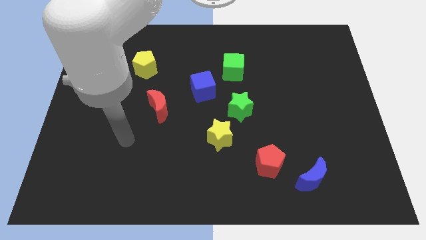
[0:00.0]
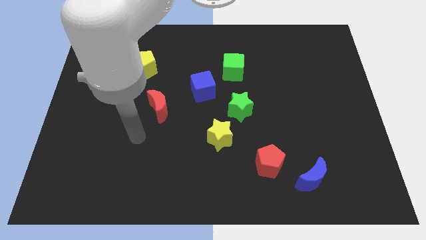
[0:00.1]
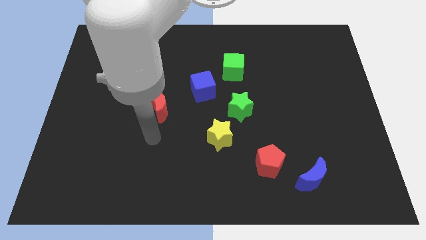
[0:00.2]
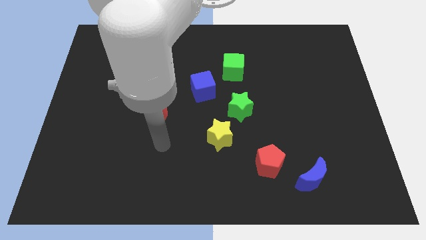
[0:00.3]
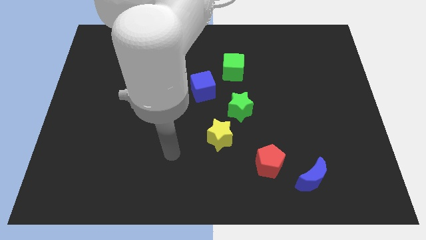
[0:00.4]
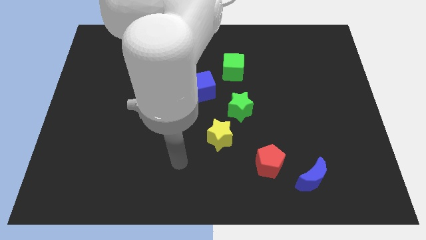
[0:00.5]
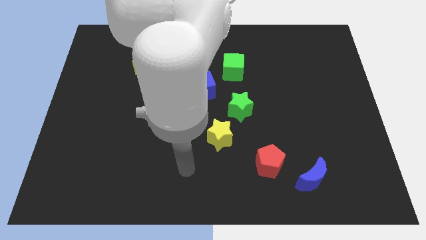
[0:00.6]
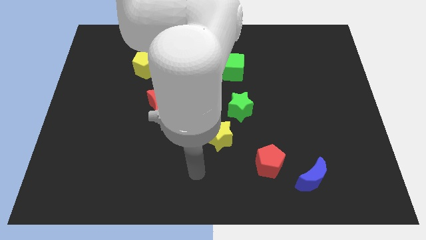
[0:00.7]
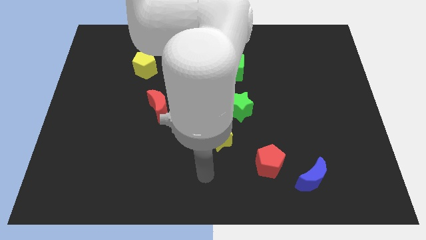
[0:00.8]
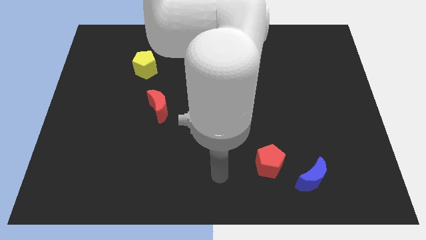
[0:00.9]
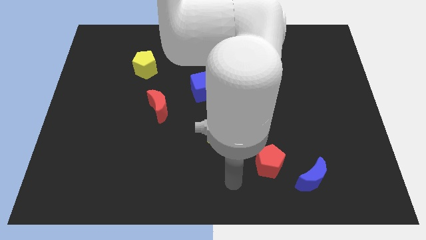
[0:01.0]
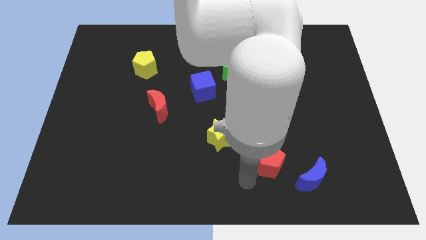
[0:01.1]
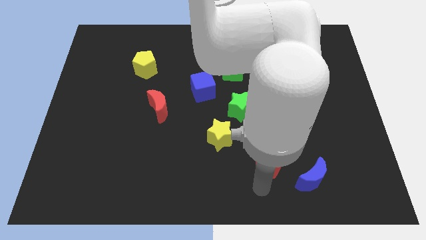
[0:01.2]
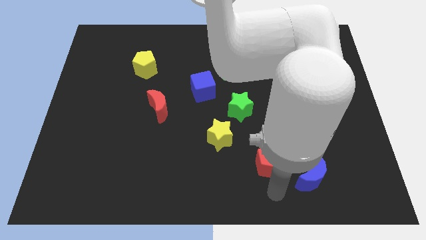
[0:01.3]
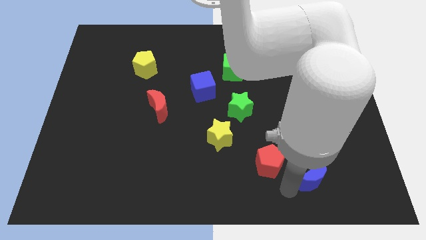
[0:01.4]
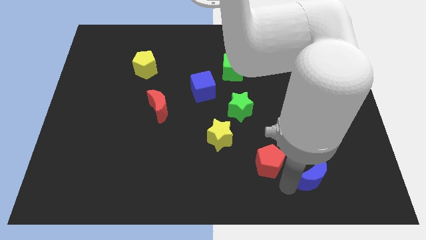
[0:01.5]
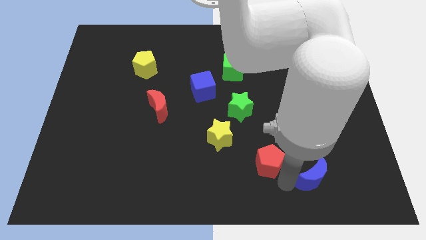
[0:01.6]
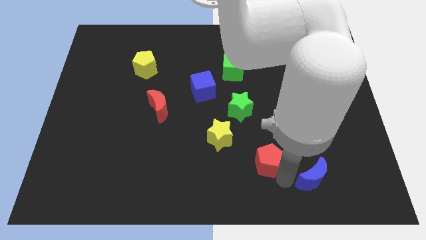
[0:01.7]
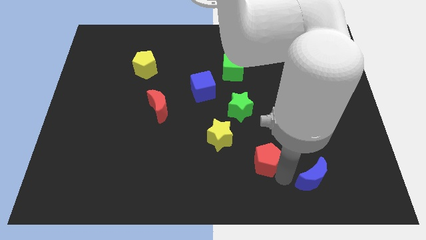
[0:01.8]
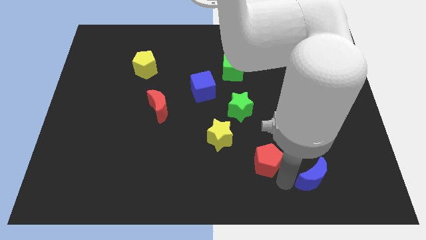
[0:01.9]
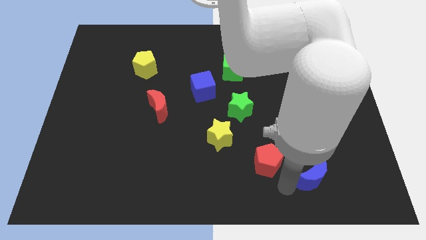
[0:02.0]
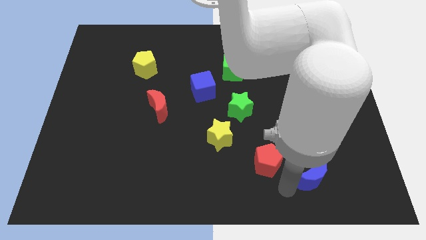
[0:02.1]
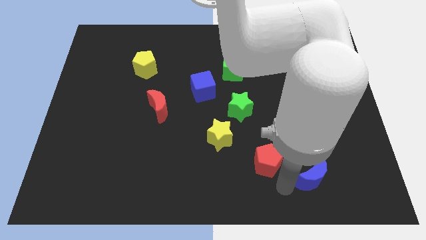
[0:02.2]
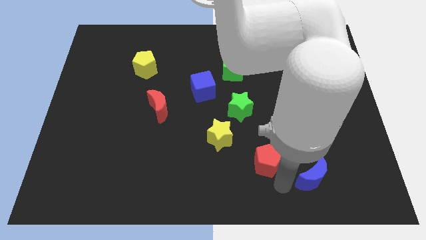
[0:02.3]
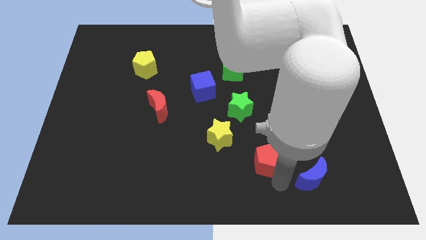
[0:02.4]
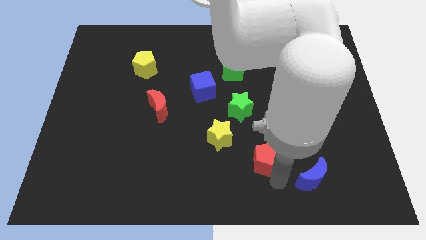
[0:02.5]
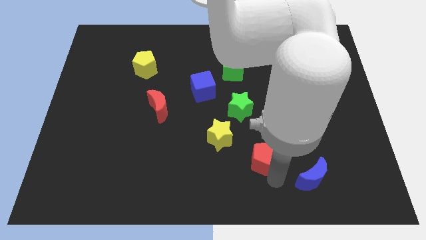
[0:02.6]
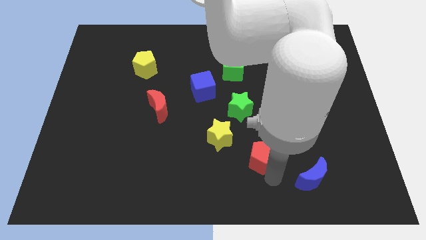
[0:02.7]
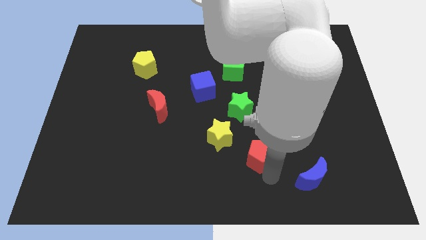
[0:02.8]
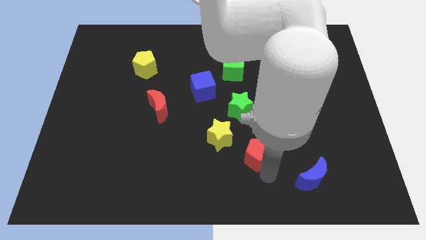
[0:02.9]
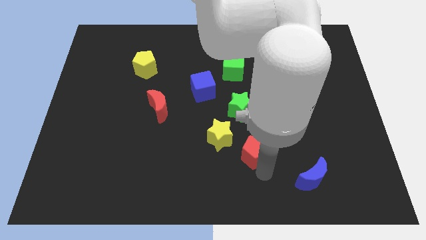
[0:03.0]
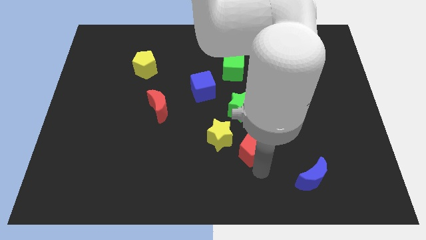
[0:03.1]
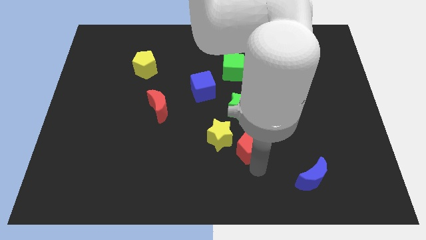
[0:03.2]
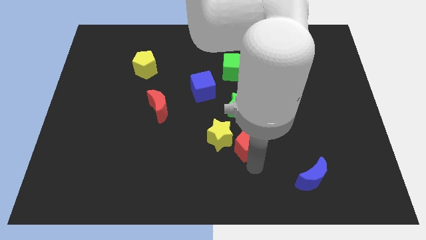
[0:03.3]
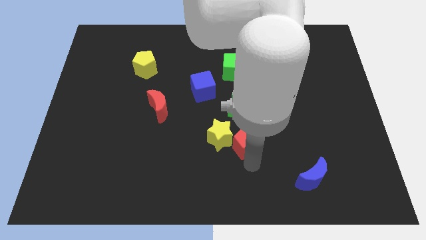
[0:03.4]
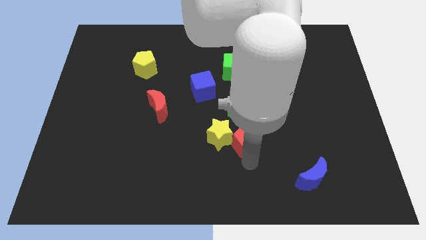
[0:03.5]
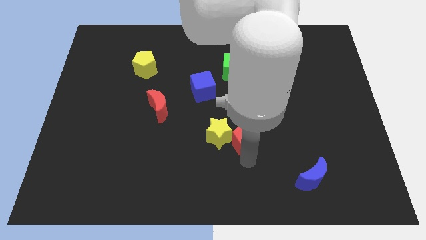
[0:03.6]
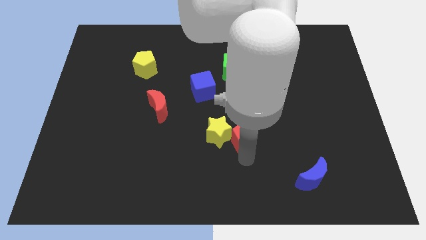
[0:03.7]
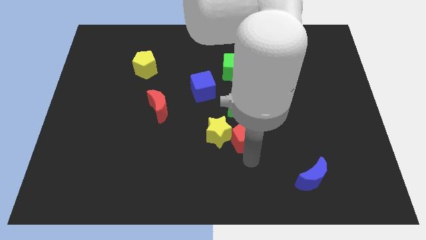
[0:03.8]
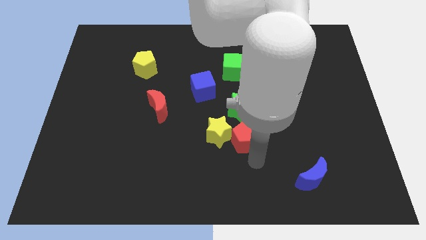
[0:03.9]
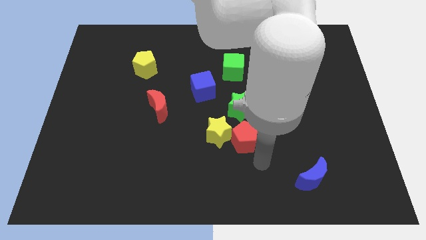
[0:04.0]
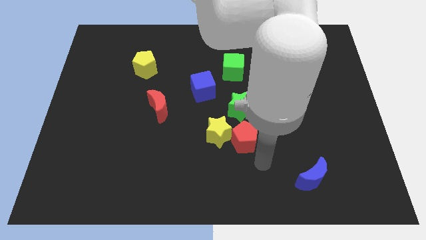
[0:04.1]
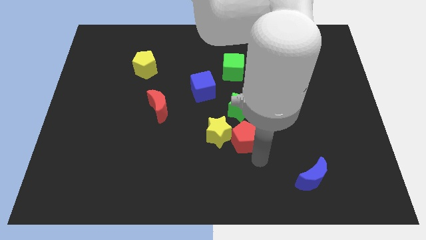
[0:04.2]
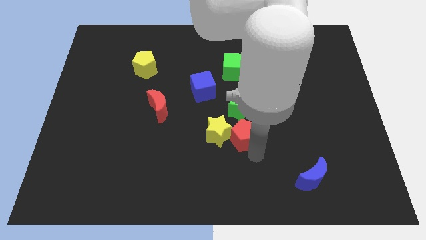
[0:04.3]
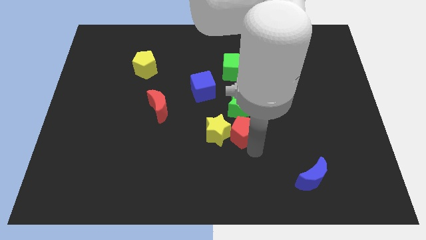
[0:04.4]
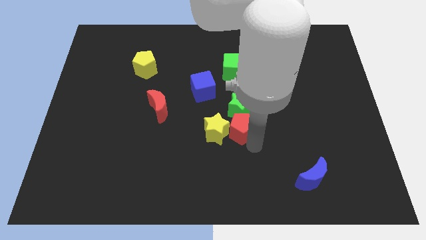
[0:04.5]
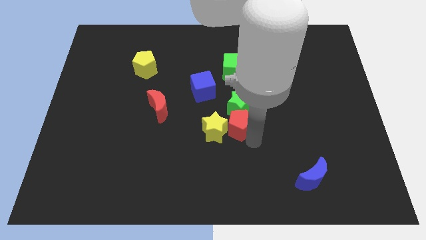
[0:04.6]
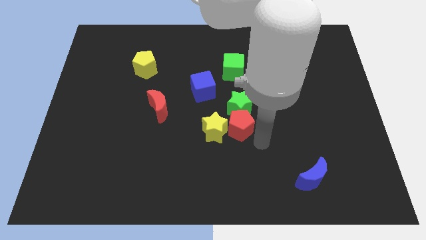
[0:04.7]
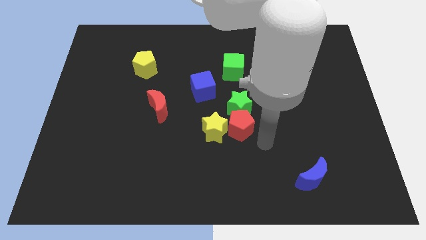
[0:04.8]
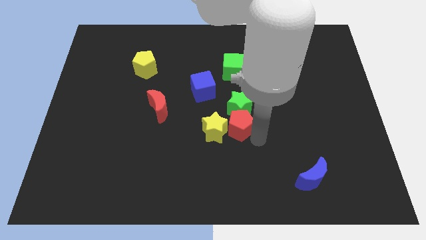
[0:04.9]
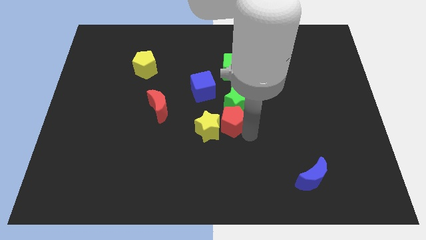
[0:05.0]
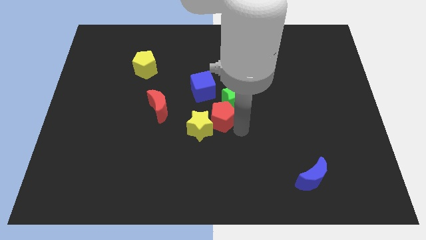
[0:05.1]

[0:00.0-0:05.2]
push the red pentagon just right of the red moon

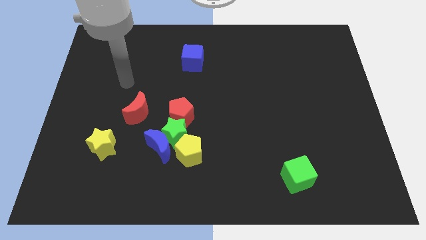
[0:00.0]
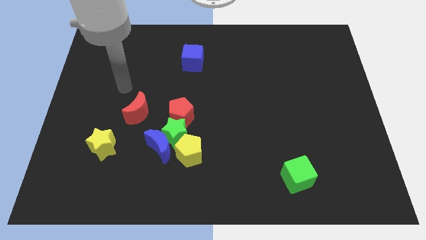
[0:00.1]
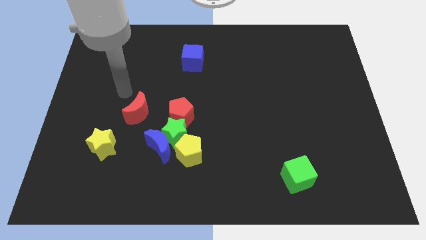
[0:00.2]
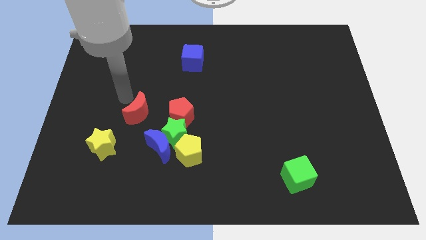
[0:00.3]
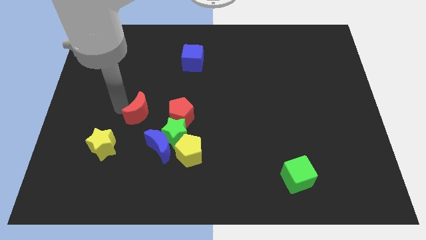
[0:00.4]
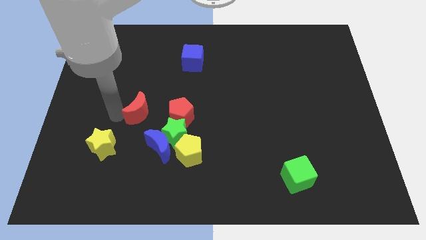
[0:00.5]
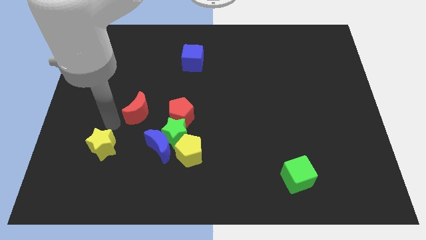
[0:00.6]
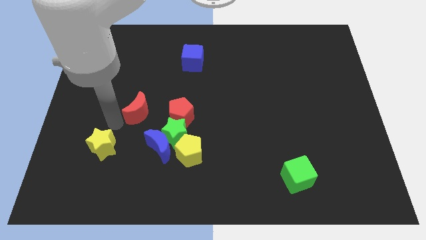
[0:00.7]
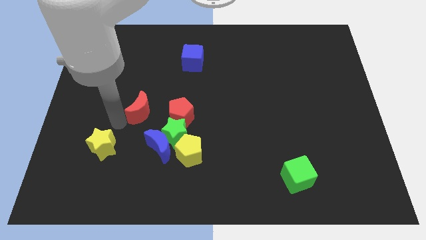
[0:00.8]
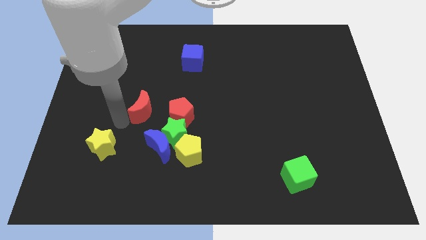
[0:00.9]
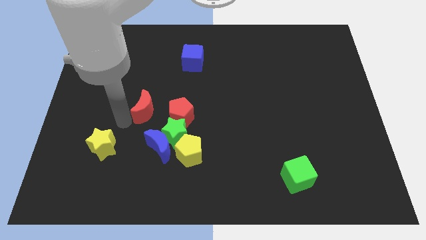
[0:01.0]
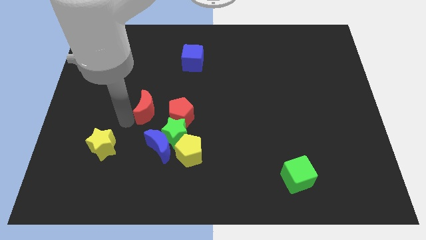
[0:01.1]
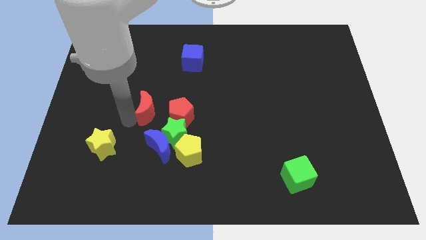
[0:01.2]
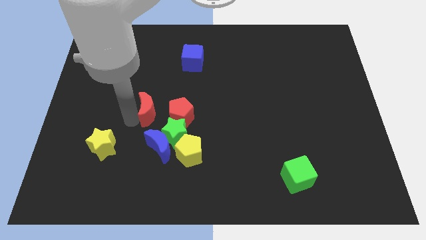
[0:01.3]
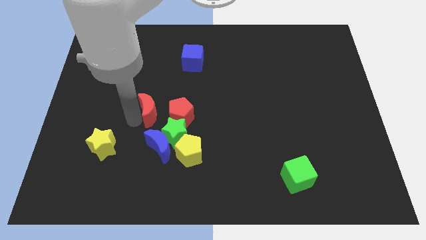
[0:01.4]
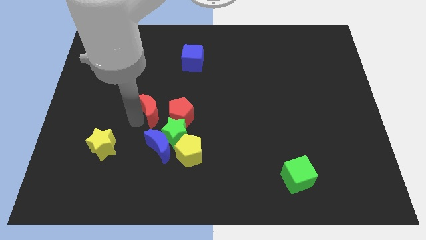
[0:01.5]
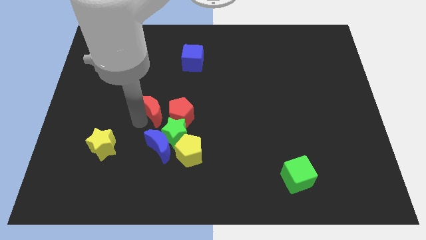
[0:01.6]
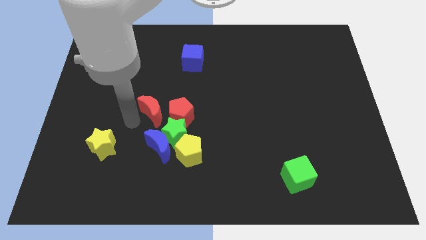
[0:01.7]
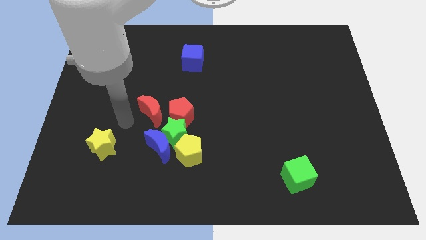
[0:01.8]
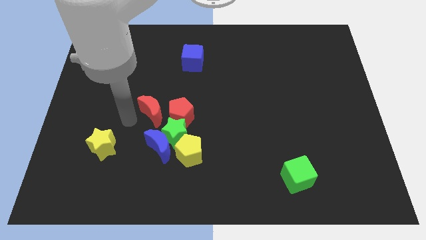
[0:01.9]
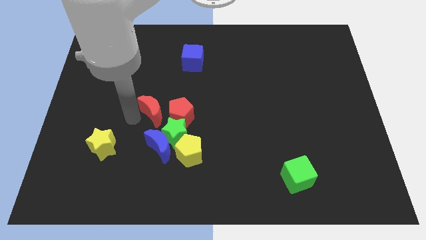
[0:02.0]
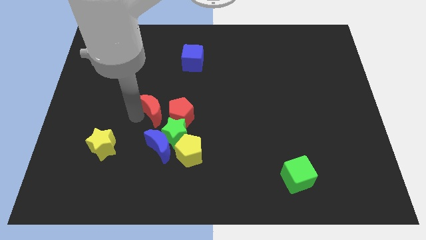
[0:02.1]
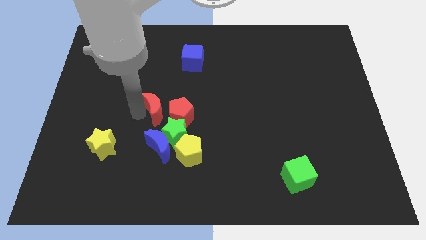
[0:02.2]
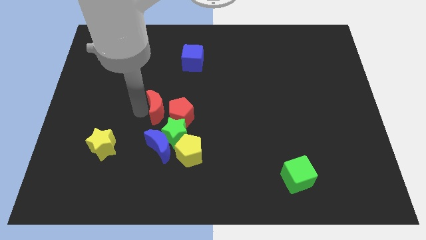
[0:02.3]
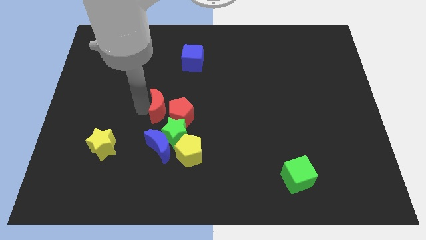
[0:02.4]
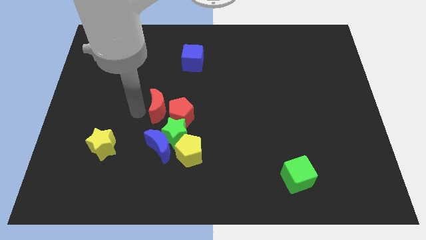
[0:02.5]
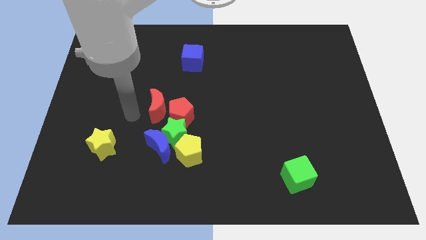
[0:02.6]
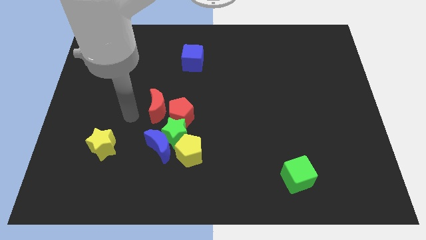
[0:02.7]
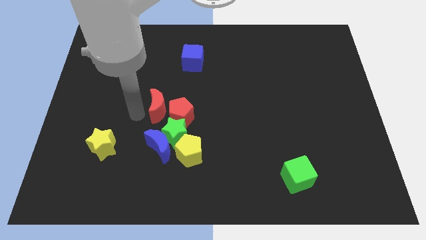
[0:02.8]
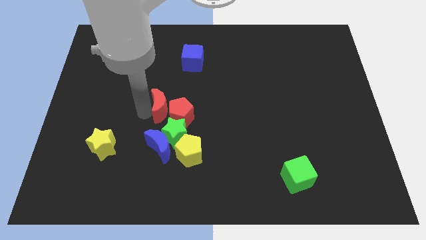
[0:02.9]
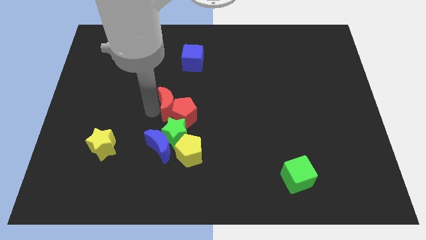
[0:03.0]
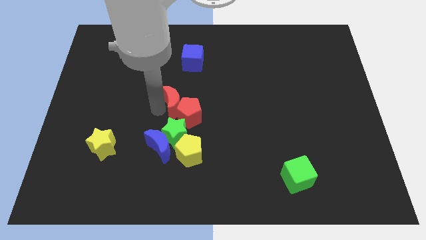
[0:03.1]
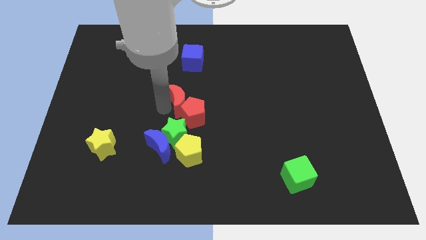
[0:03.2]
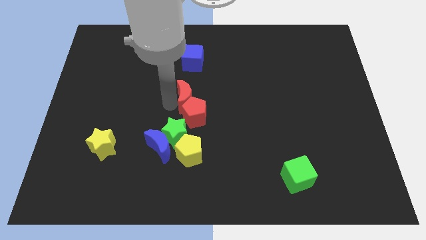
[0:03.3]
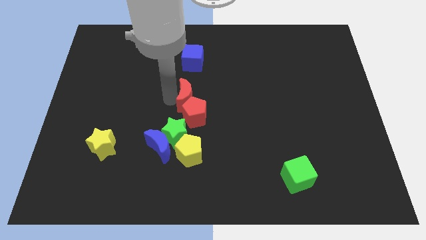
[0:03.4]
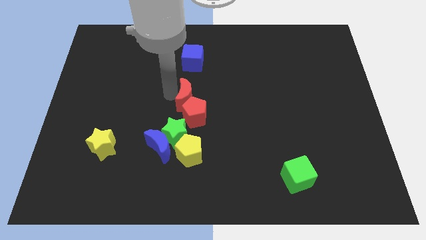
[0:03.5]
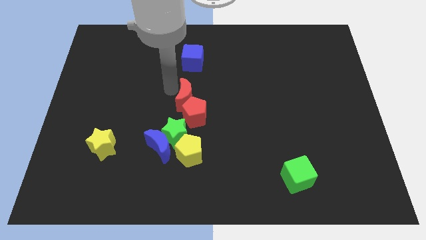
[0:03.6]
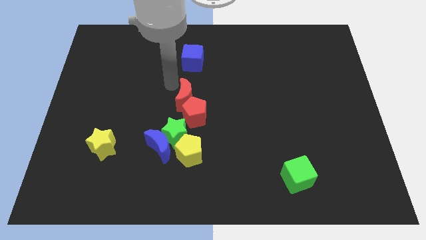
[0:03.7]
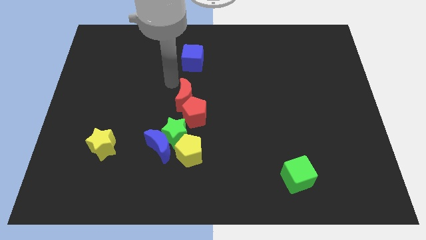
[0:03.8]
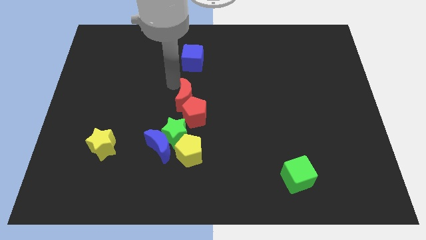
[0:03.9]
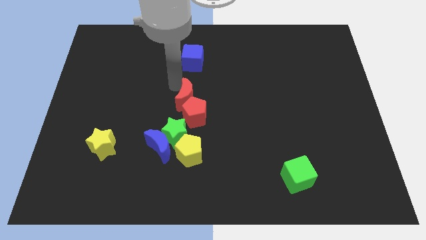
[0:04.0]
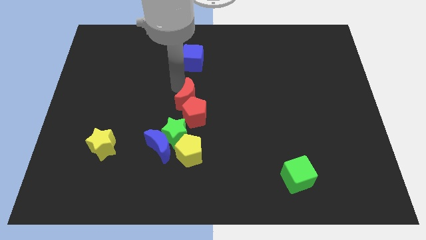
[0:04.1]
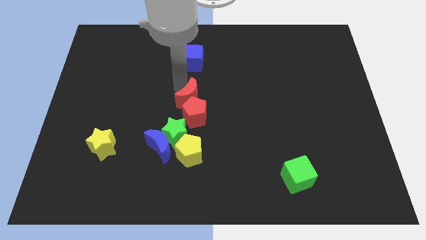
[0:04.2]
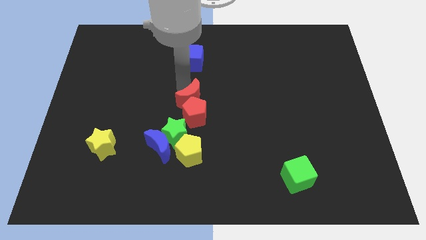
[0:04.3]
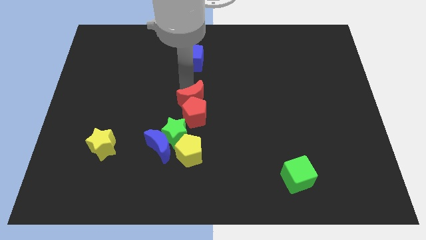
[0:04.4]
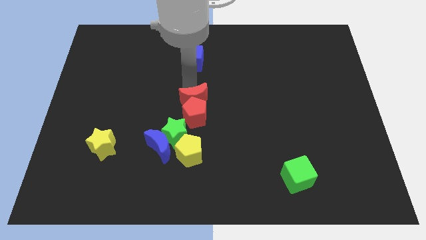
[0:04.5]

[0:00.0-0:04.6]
move the red moon to the top right side of the green star
